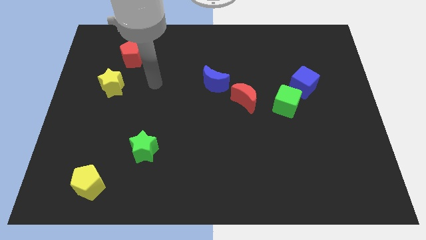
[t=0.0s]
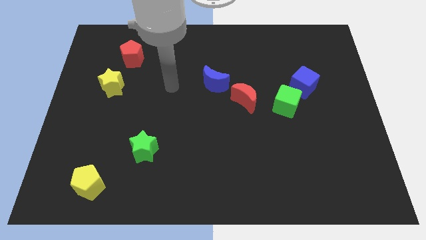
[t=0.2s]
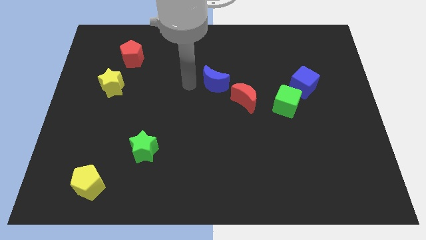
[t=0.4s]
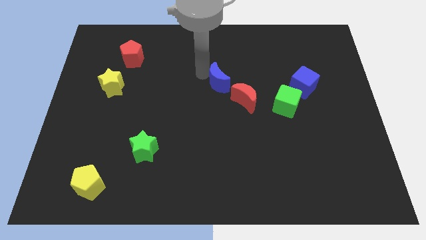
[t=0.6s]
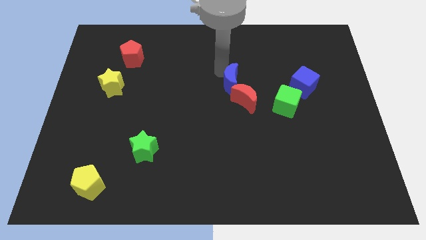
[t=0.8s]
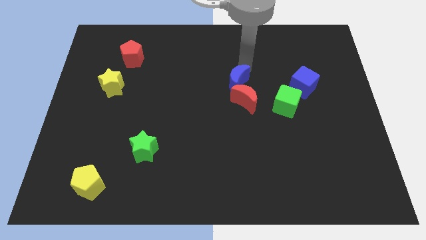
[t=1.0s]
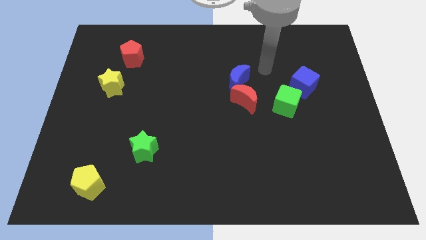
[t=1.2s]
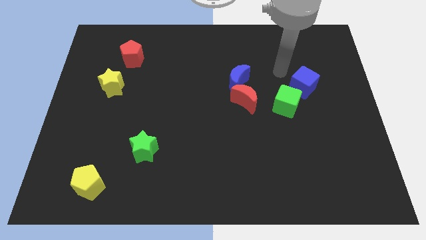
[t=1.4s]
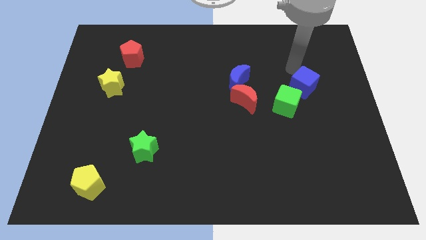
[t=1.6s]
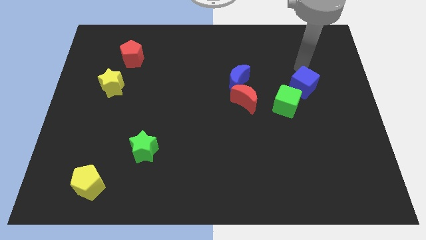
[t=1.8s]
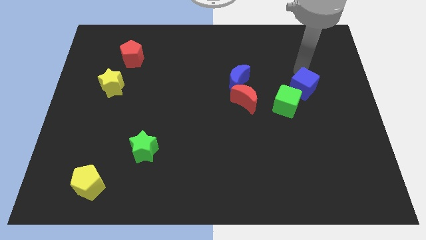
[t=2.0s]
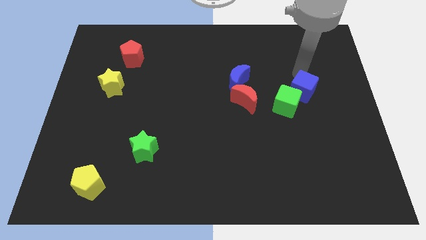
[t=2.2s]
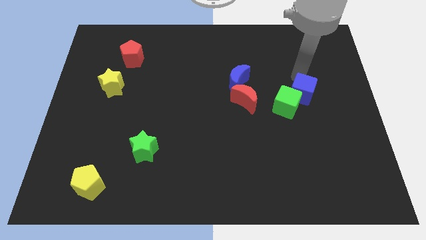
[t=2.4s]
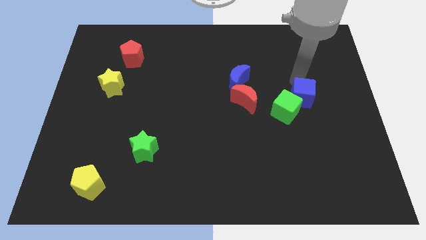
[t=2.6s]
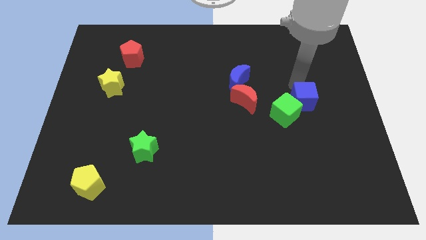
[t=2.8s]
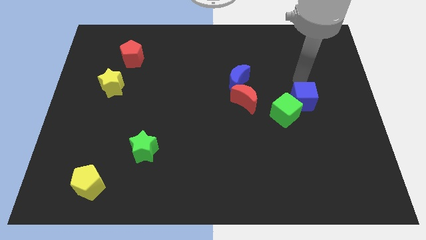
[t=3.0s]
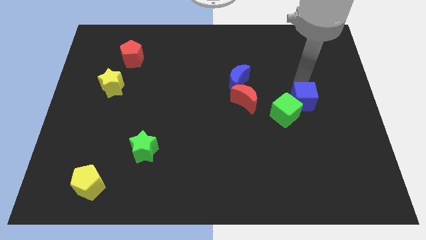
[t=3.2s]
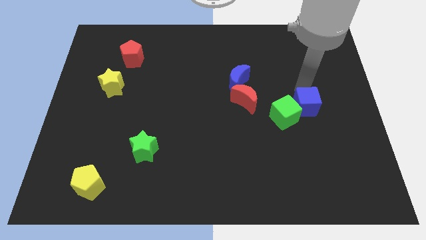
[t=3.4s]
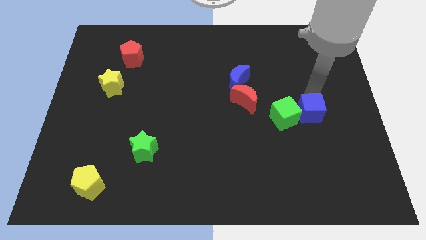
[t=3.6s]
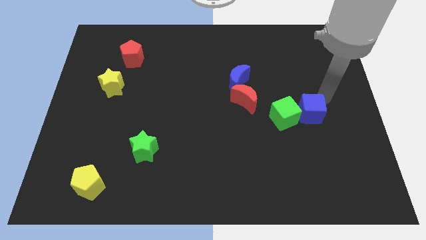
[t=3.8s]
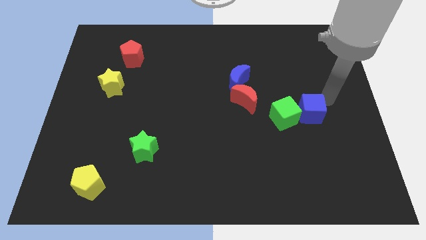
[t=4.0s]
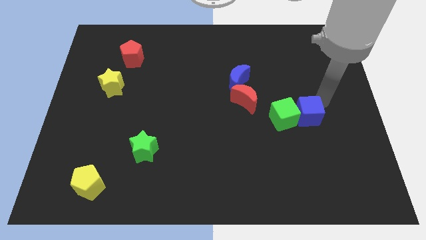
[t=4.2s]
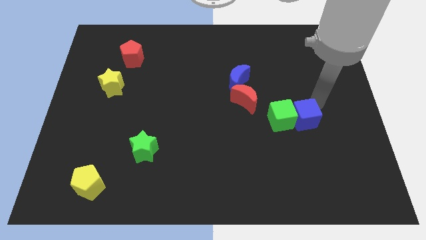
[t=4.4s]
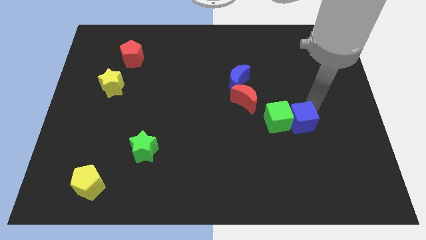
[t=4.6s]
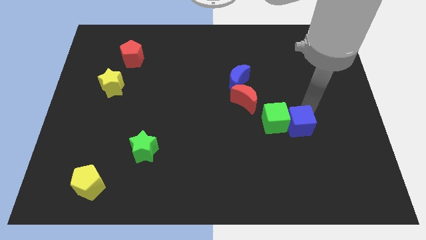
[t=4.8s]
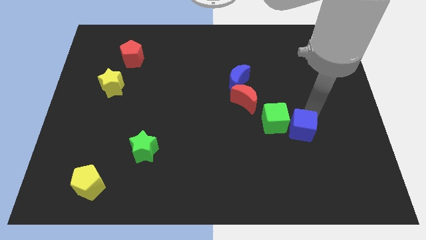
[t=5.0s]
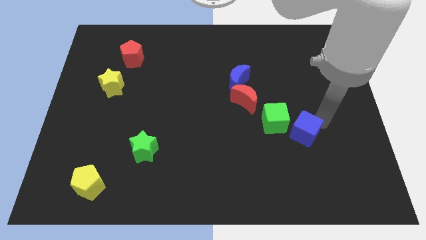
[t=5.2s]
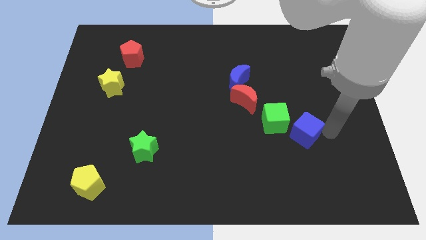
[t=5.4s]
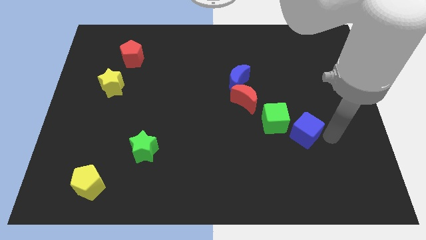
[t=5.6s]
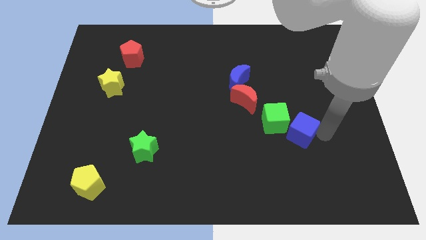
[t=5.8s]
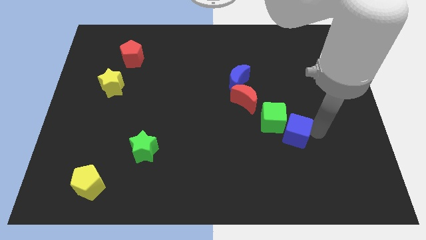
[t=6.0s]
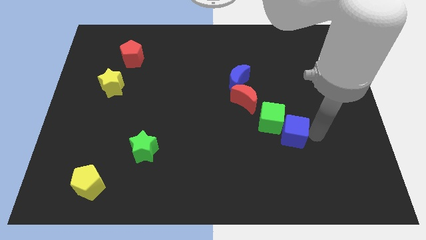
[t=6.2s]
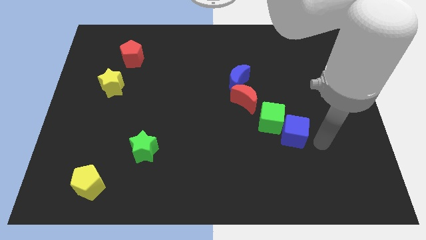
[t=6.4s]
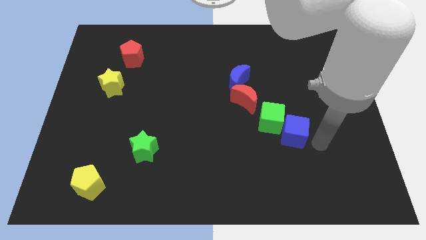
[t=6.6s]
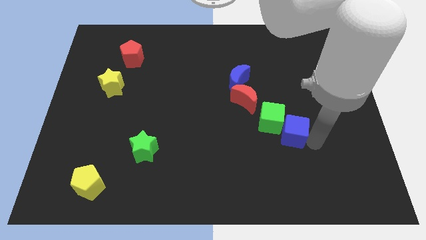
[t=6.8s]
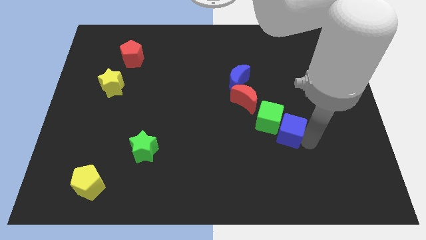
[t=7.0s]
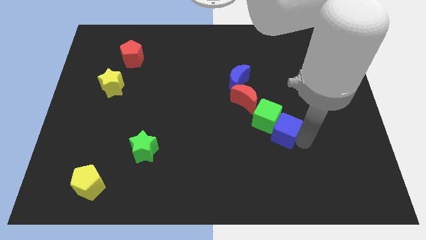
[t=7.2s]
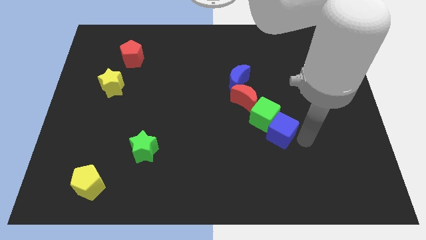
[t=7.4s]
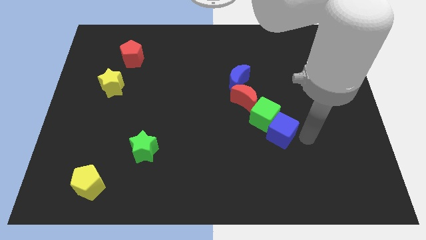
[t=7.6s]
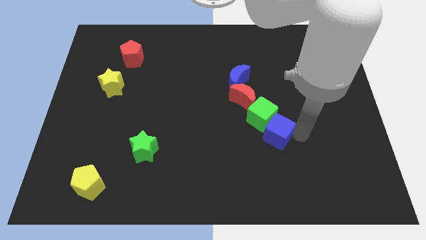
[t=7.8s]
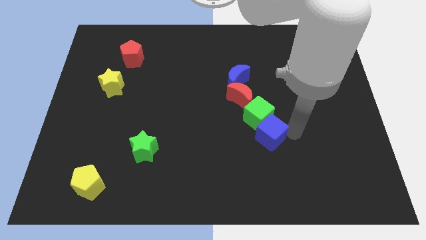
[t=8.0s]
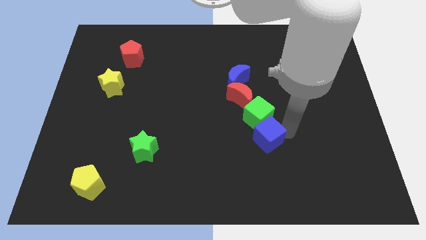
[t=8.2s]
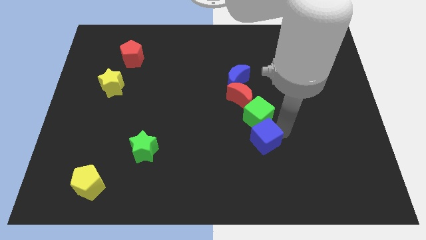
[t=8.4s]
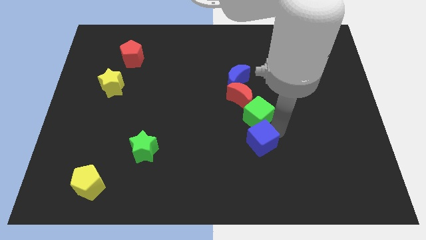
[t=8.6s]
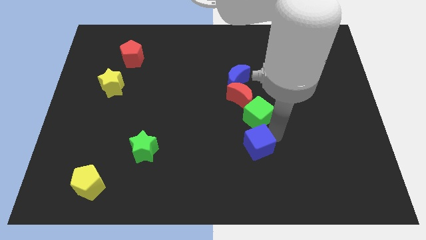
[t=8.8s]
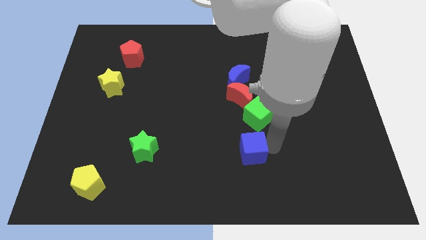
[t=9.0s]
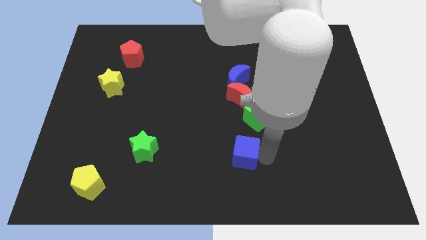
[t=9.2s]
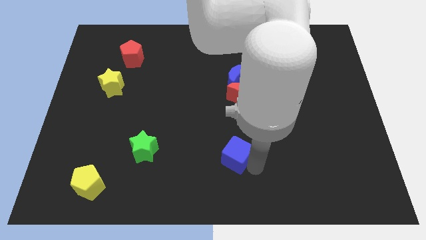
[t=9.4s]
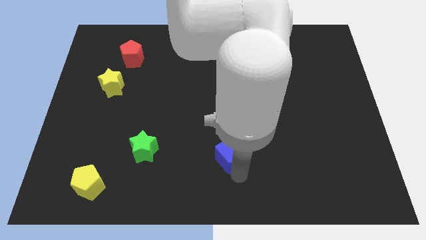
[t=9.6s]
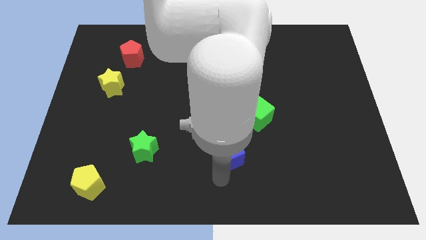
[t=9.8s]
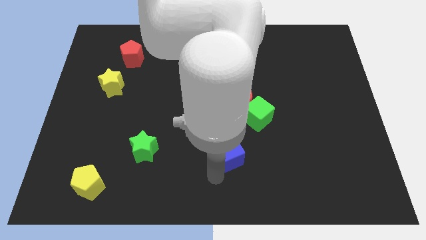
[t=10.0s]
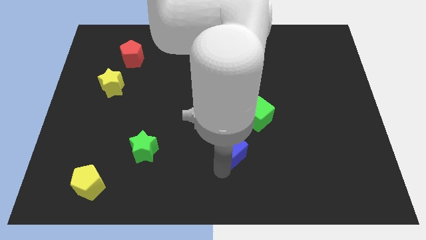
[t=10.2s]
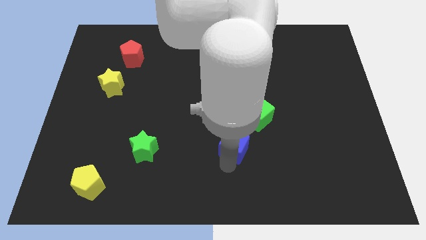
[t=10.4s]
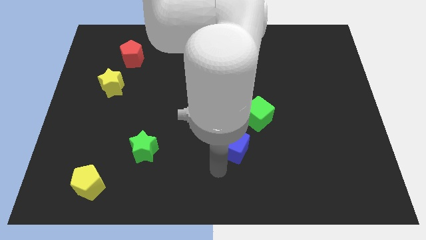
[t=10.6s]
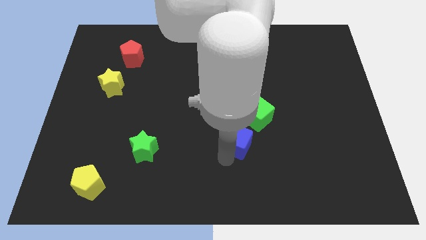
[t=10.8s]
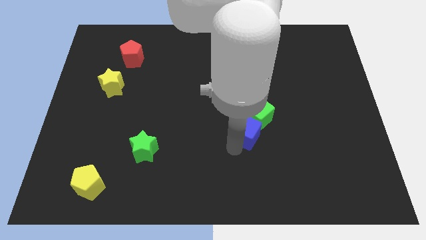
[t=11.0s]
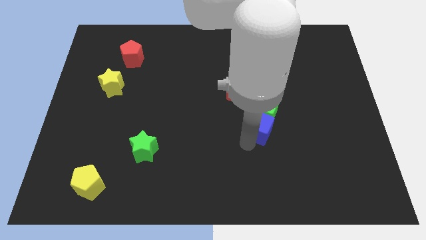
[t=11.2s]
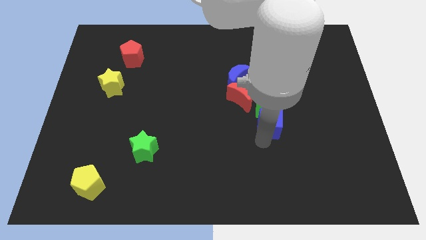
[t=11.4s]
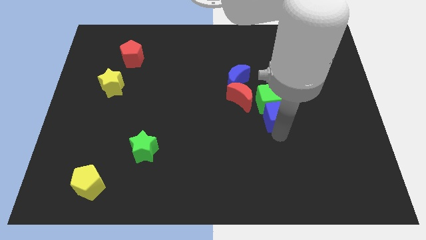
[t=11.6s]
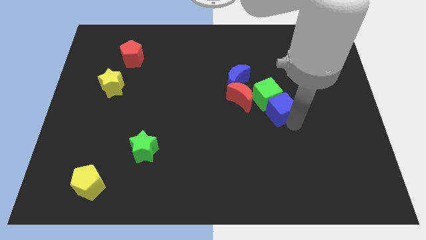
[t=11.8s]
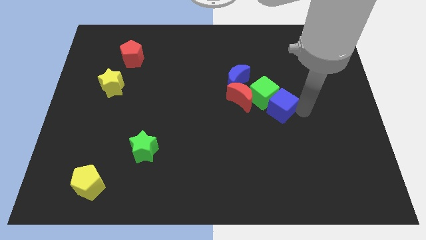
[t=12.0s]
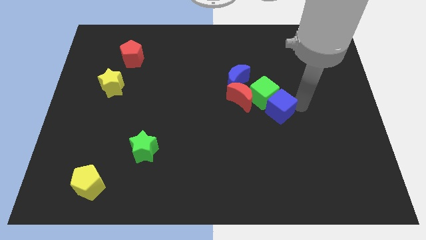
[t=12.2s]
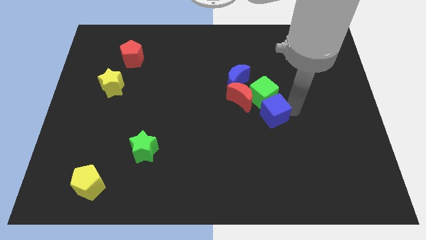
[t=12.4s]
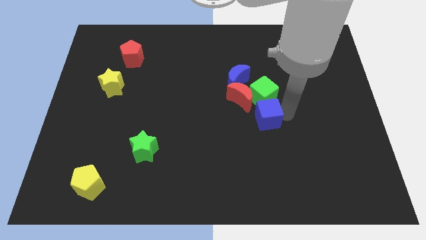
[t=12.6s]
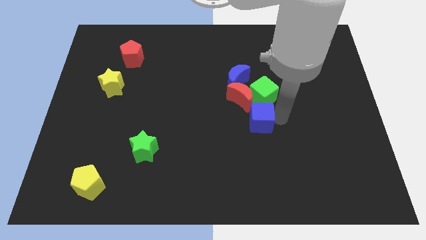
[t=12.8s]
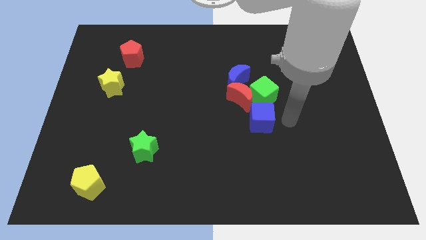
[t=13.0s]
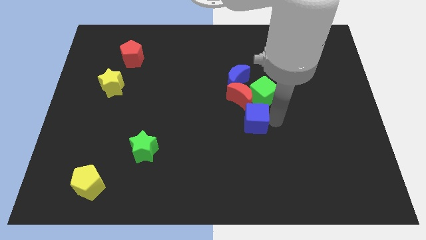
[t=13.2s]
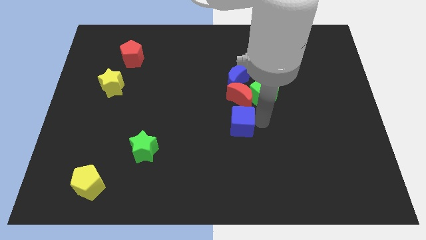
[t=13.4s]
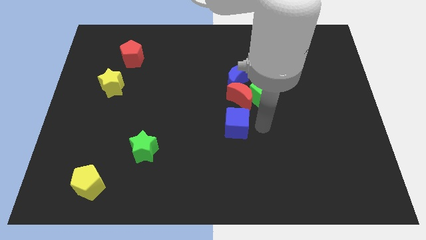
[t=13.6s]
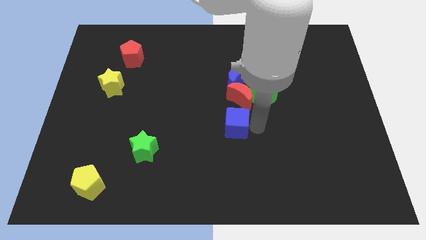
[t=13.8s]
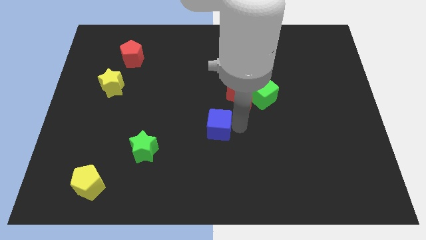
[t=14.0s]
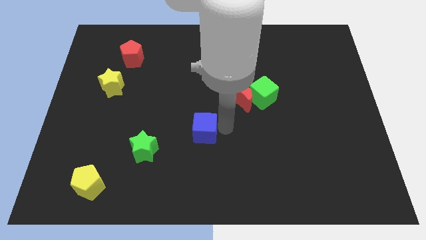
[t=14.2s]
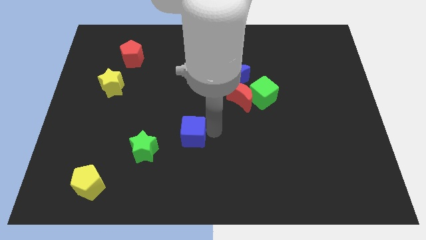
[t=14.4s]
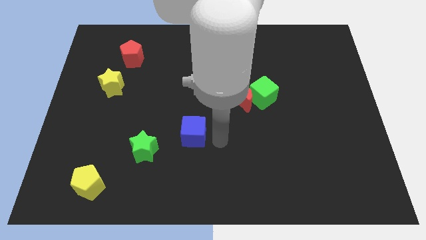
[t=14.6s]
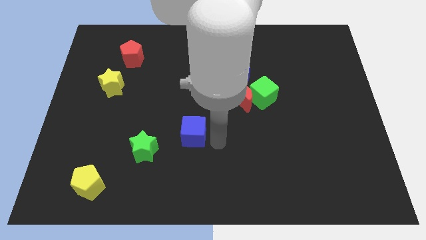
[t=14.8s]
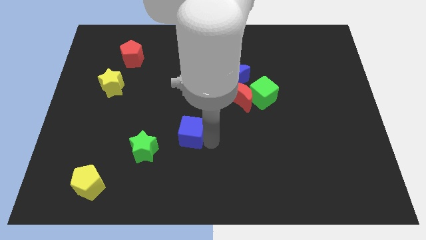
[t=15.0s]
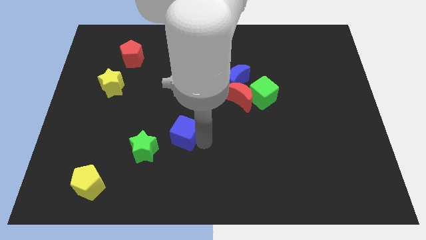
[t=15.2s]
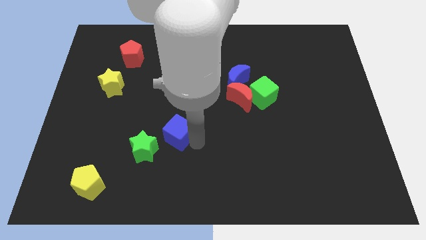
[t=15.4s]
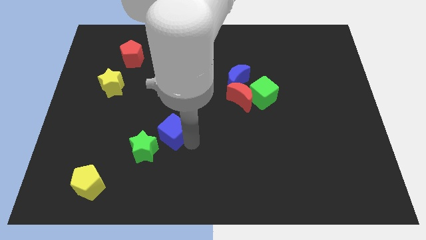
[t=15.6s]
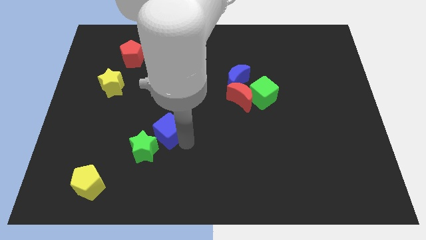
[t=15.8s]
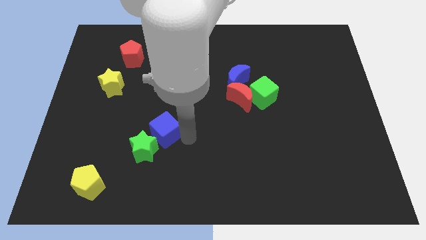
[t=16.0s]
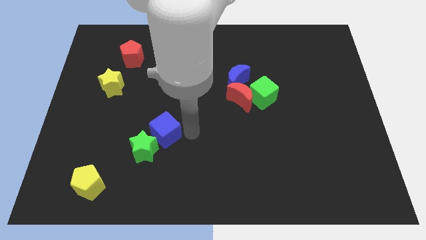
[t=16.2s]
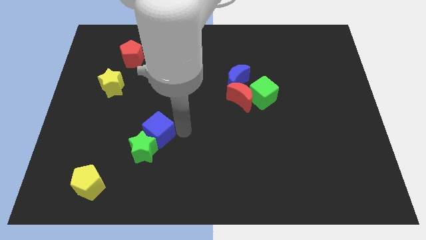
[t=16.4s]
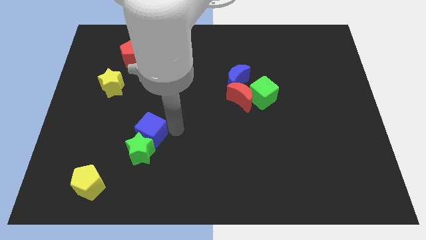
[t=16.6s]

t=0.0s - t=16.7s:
push the blue cube to the top left of the green star
